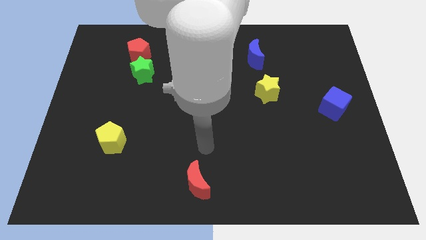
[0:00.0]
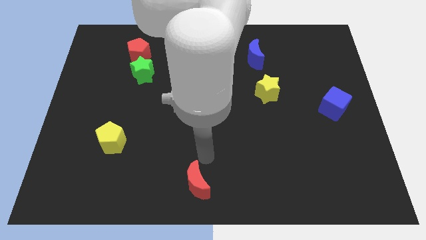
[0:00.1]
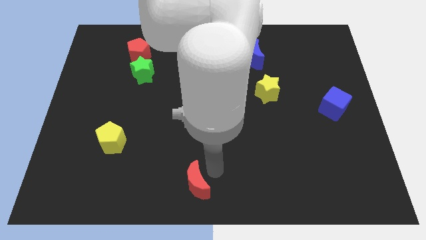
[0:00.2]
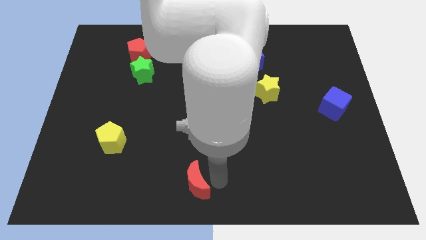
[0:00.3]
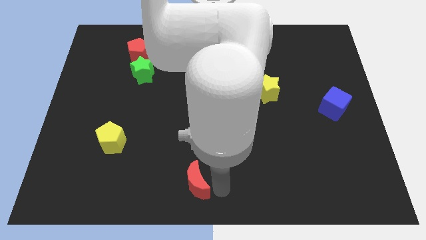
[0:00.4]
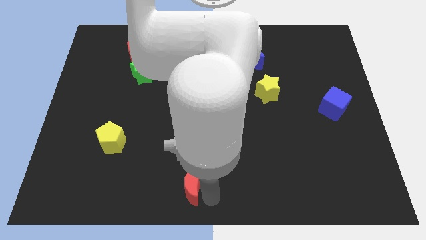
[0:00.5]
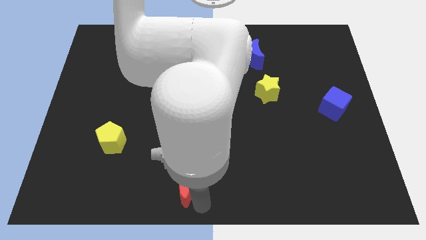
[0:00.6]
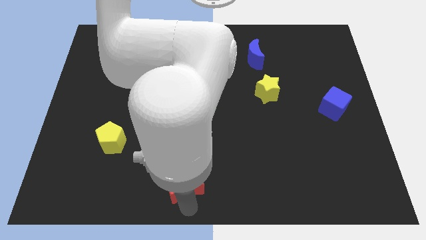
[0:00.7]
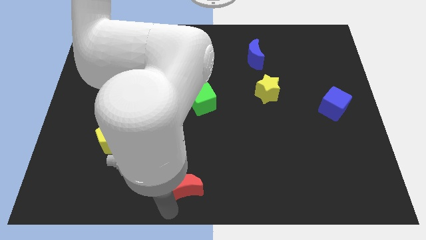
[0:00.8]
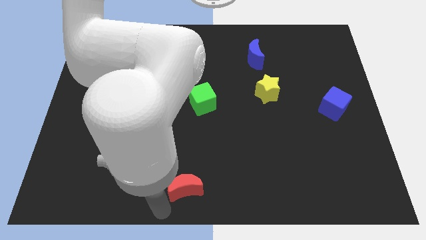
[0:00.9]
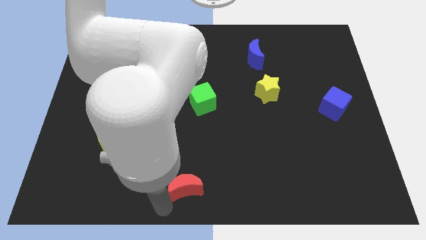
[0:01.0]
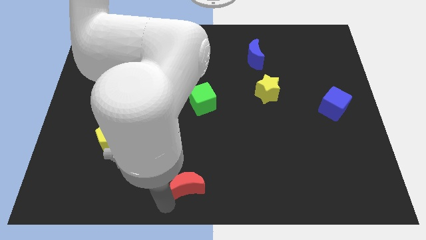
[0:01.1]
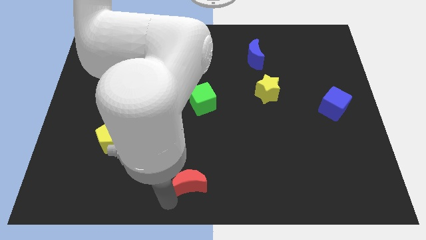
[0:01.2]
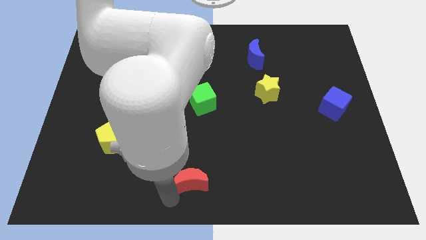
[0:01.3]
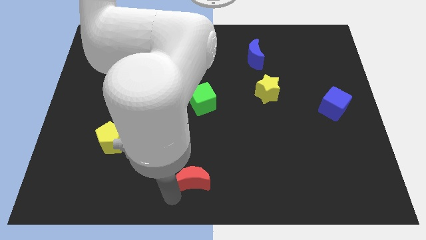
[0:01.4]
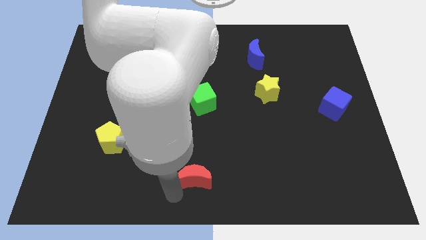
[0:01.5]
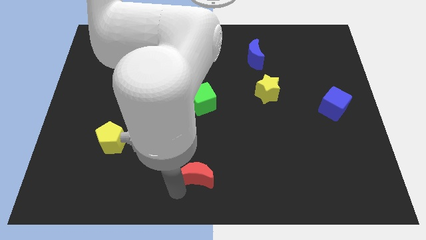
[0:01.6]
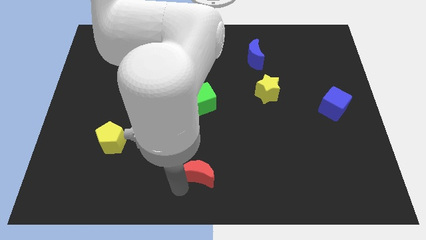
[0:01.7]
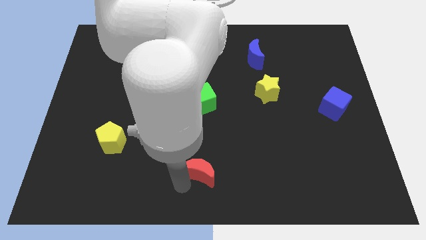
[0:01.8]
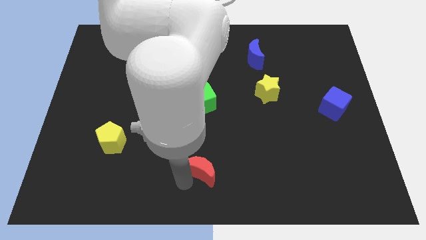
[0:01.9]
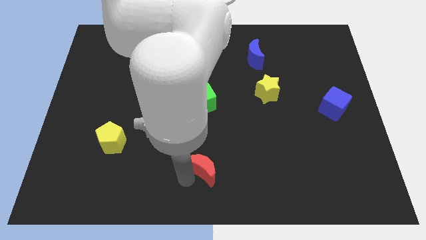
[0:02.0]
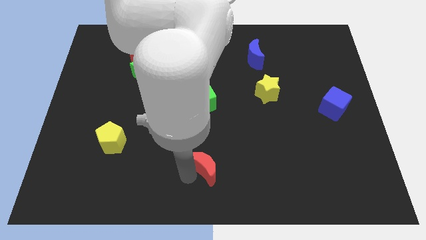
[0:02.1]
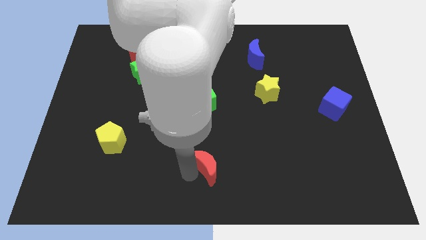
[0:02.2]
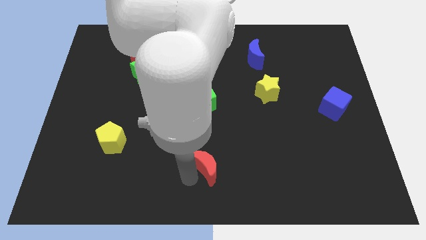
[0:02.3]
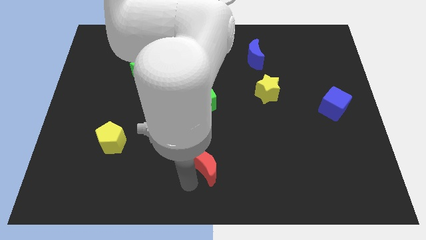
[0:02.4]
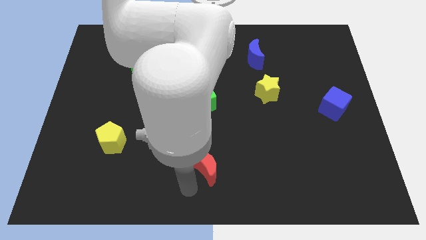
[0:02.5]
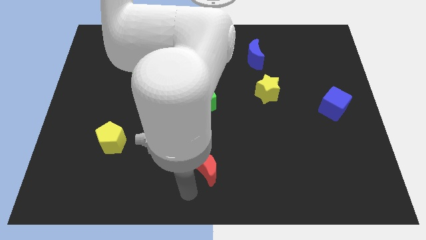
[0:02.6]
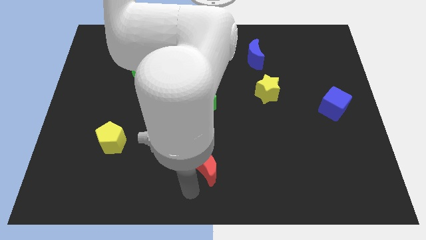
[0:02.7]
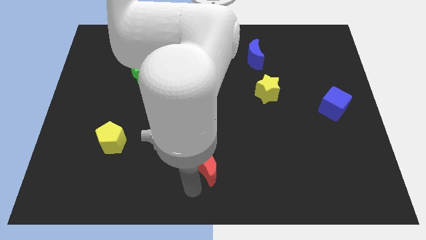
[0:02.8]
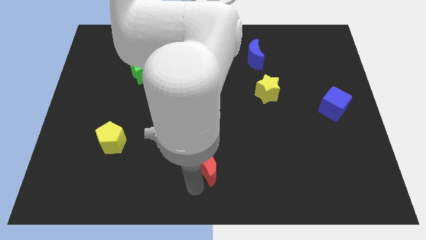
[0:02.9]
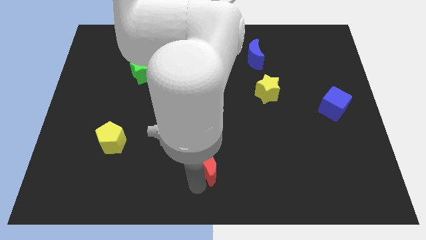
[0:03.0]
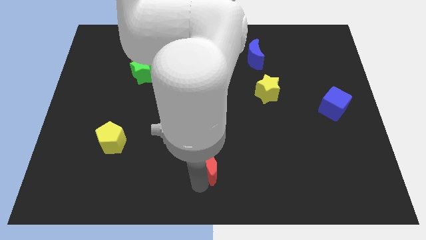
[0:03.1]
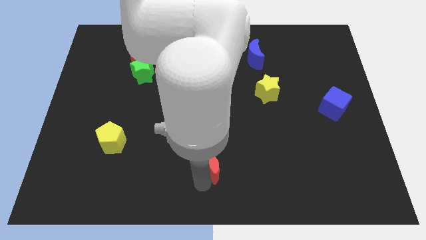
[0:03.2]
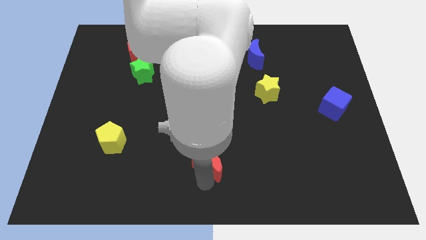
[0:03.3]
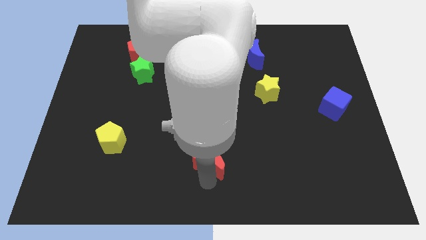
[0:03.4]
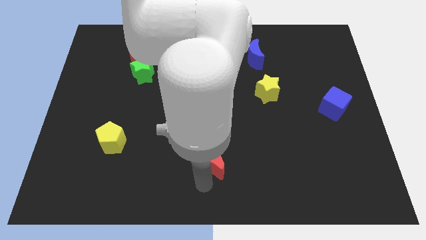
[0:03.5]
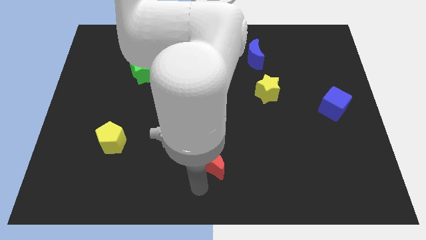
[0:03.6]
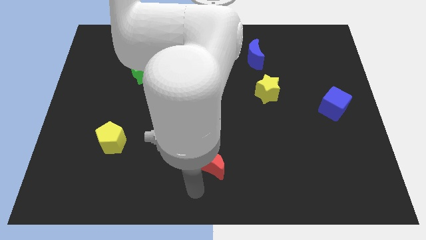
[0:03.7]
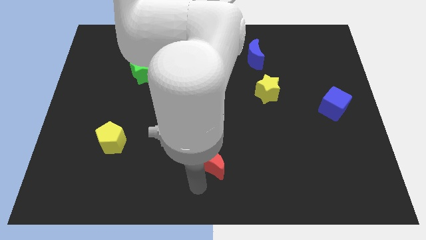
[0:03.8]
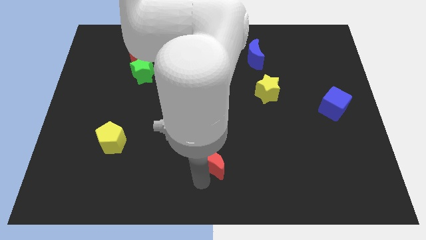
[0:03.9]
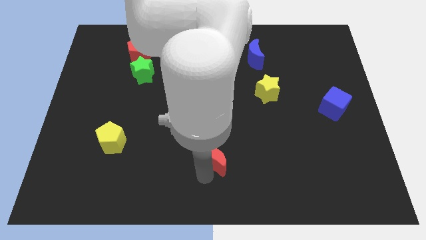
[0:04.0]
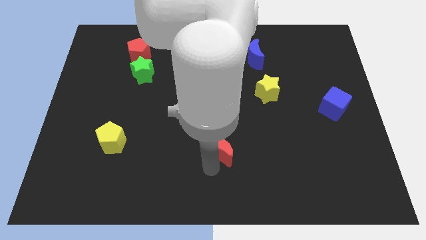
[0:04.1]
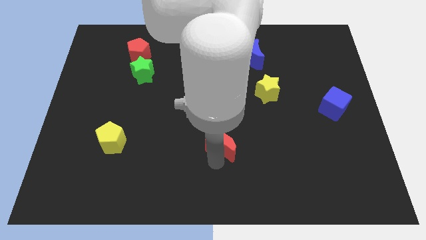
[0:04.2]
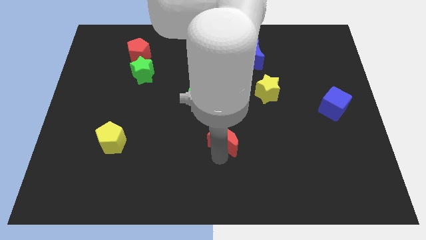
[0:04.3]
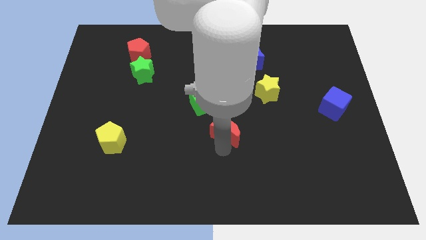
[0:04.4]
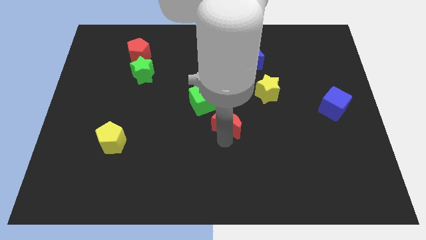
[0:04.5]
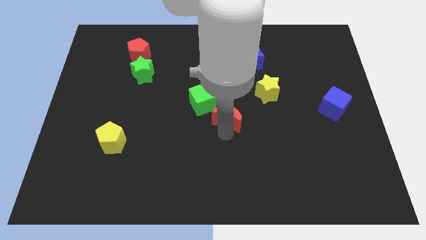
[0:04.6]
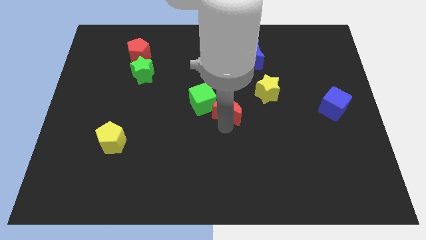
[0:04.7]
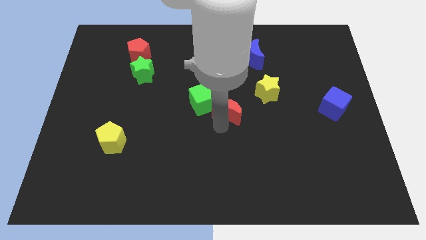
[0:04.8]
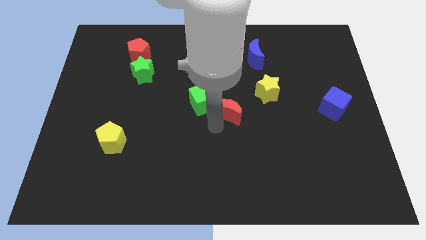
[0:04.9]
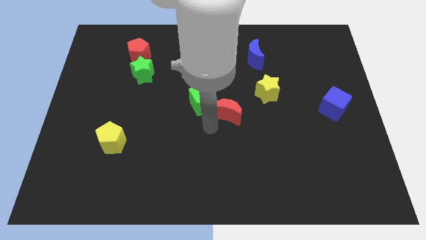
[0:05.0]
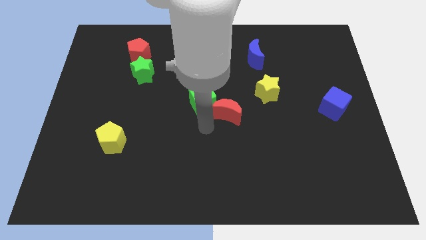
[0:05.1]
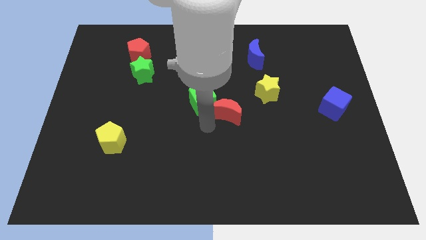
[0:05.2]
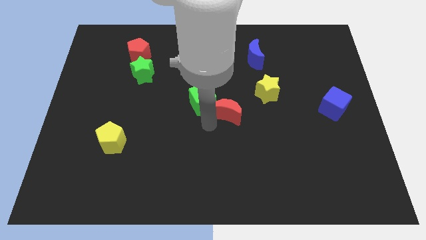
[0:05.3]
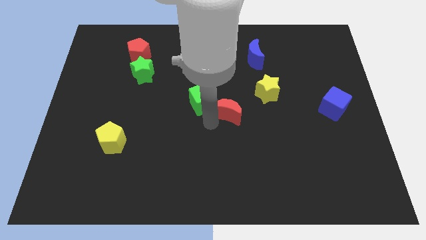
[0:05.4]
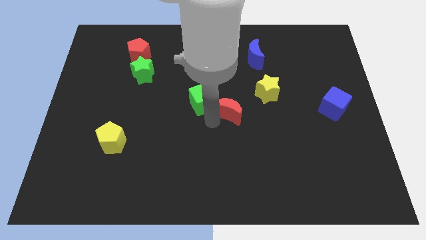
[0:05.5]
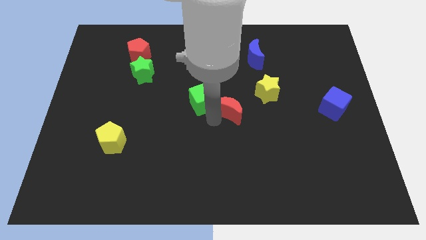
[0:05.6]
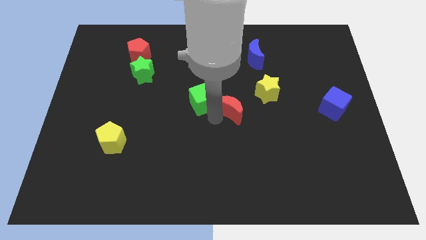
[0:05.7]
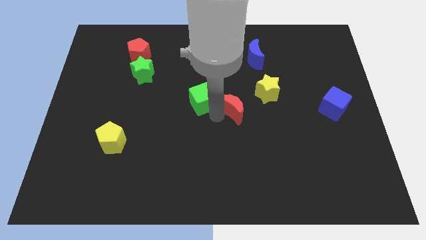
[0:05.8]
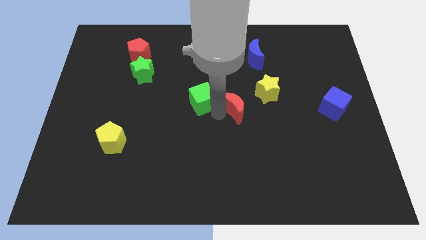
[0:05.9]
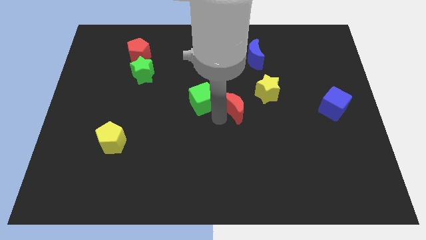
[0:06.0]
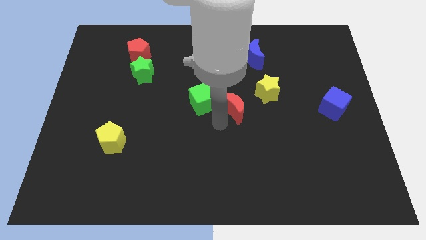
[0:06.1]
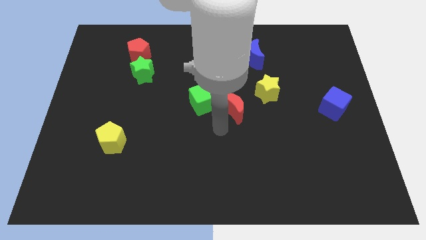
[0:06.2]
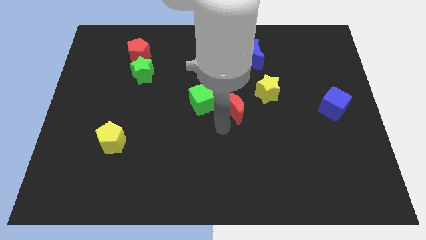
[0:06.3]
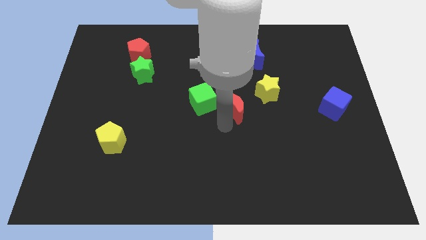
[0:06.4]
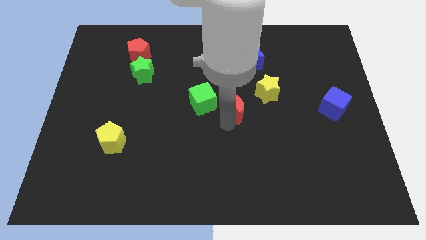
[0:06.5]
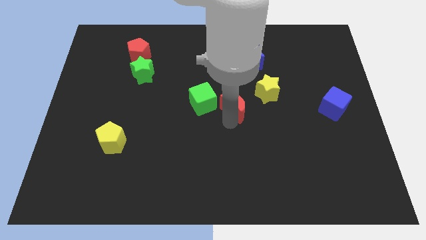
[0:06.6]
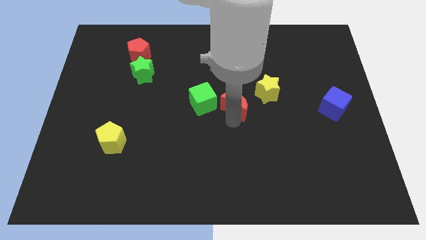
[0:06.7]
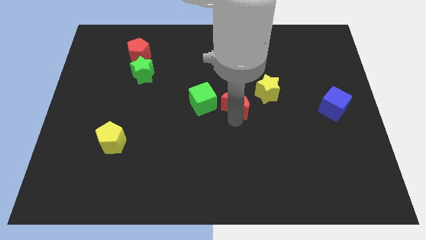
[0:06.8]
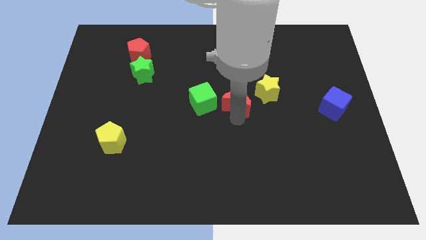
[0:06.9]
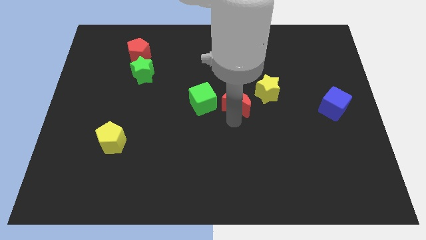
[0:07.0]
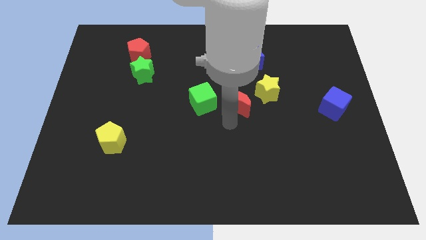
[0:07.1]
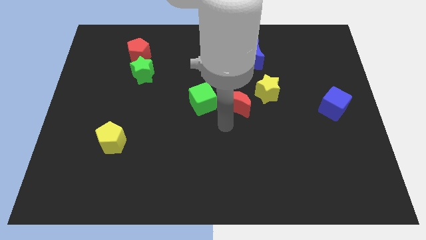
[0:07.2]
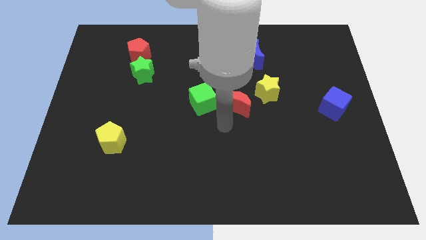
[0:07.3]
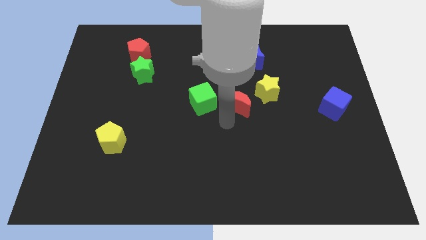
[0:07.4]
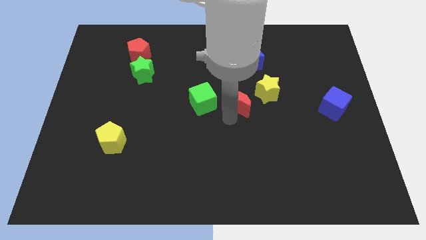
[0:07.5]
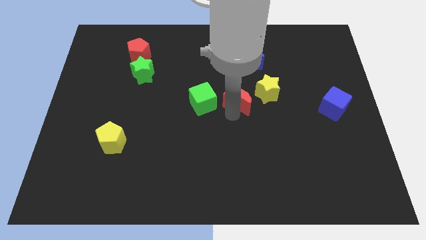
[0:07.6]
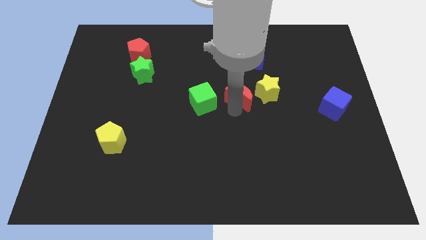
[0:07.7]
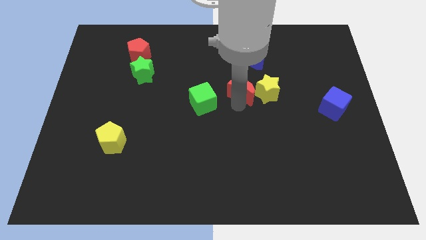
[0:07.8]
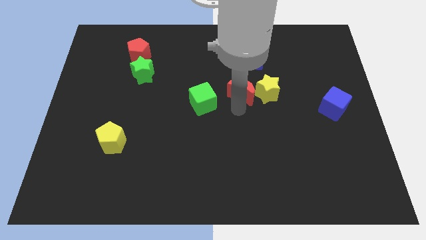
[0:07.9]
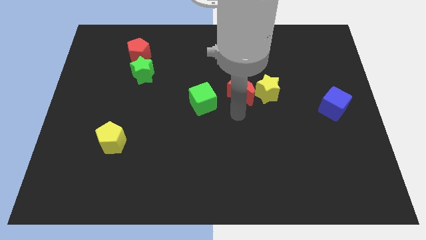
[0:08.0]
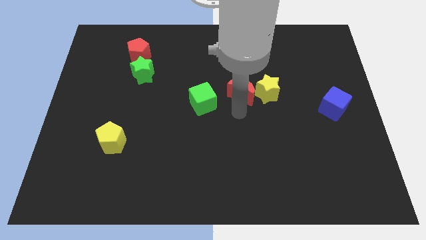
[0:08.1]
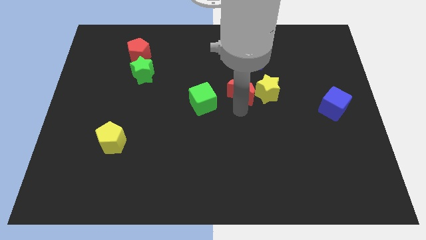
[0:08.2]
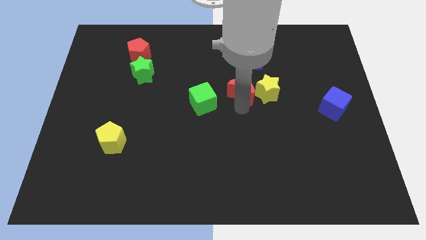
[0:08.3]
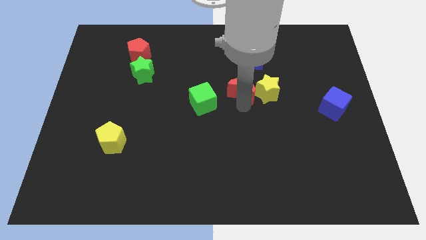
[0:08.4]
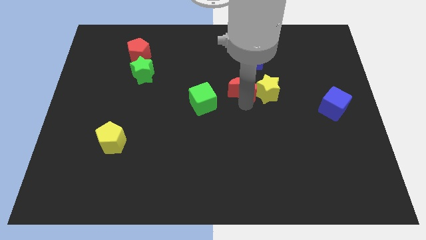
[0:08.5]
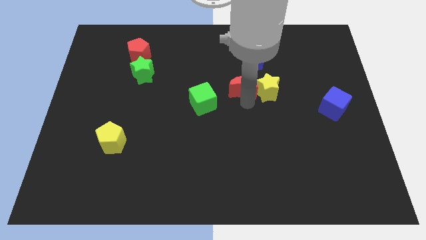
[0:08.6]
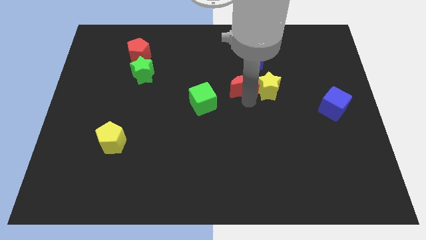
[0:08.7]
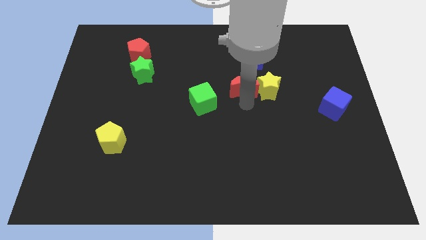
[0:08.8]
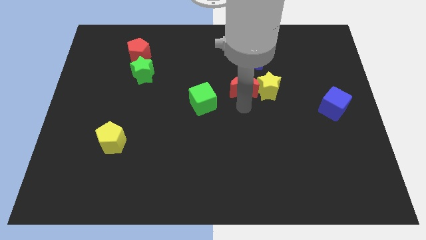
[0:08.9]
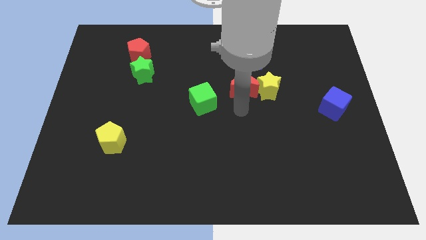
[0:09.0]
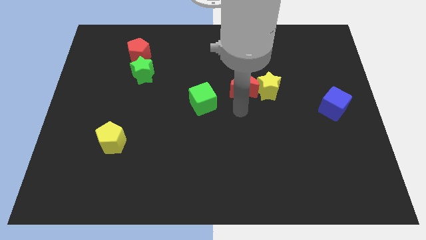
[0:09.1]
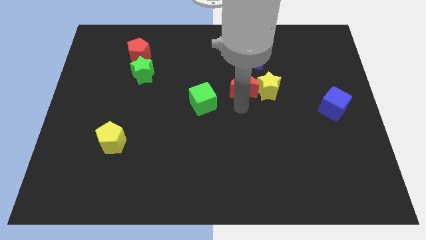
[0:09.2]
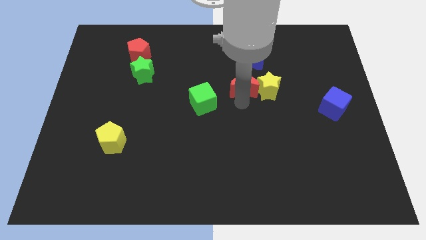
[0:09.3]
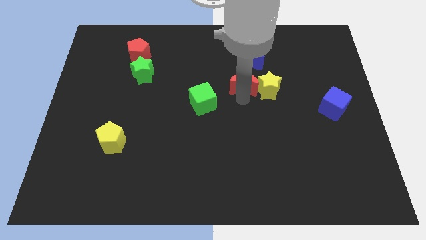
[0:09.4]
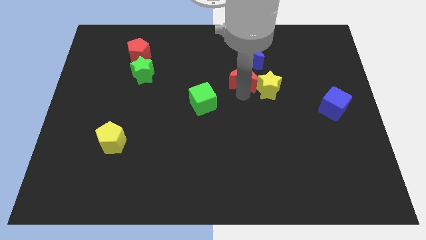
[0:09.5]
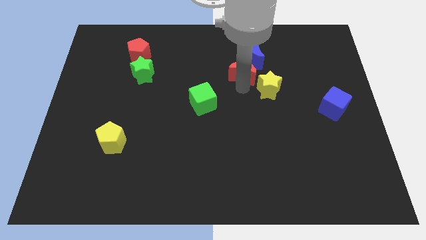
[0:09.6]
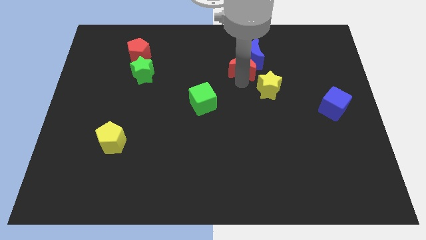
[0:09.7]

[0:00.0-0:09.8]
move the red moon towards the blue moon
